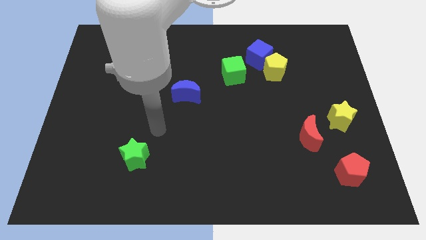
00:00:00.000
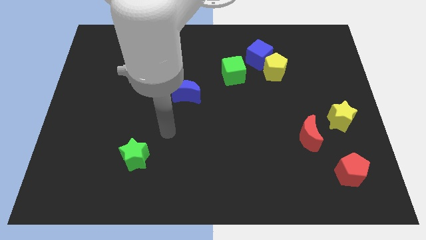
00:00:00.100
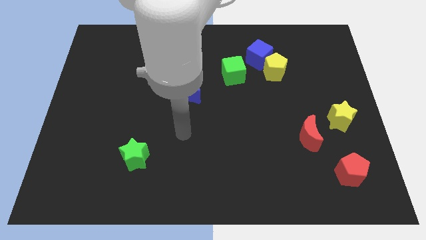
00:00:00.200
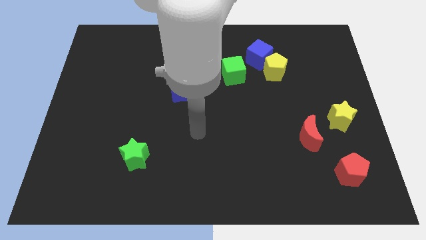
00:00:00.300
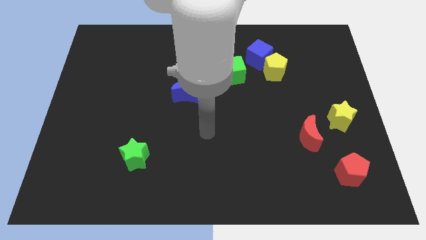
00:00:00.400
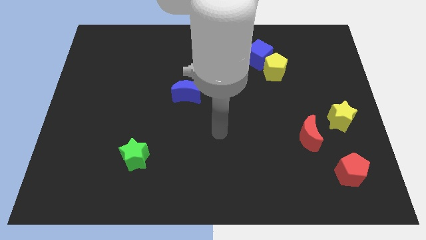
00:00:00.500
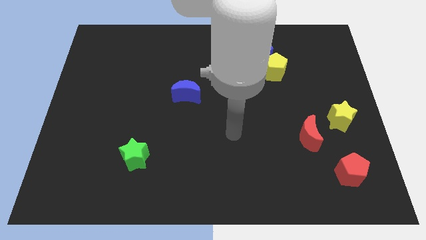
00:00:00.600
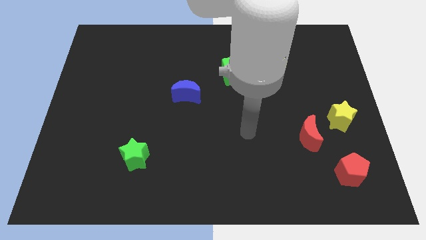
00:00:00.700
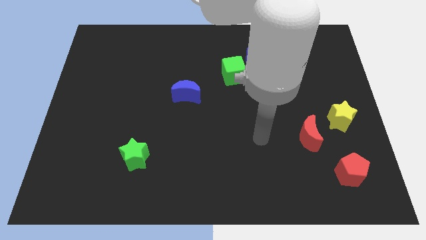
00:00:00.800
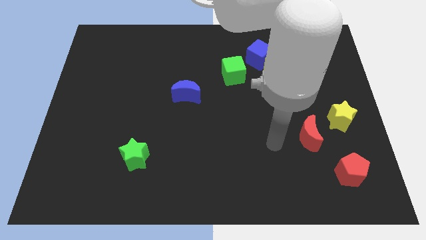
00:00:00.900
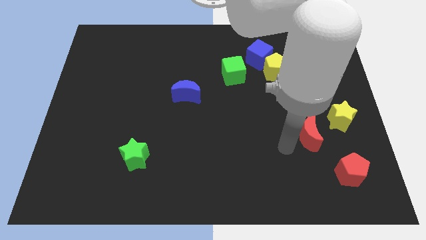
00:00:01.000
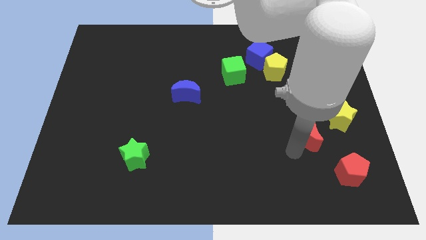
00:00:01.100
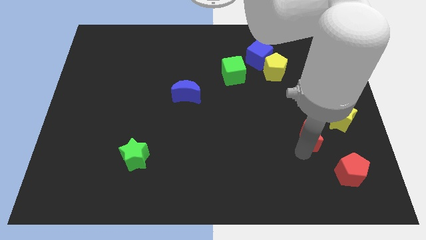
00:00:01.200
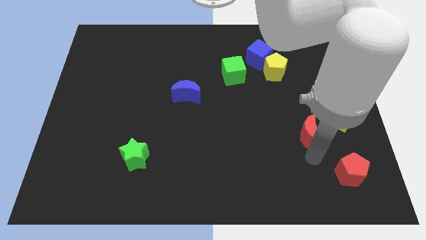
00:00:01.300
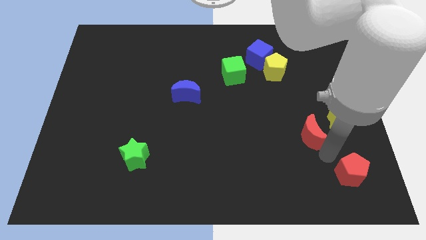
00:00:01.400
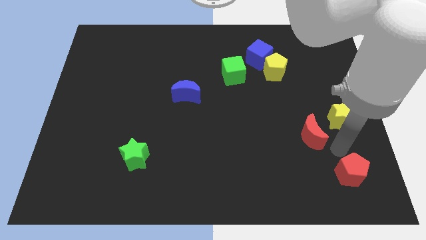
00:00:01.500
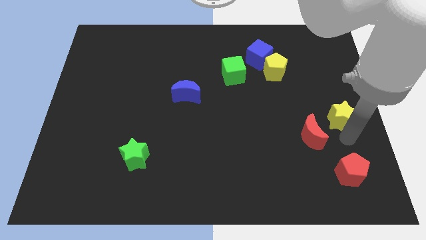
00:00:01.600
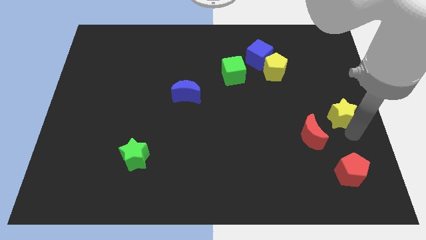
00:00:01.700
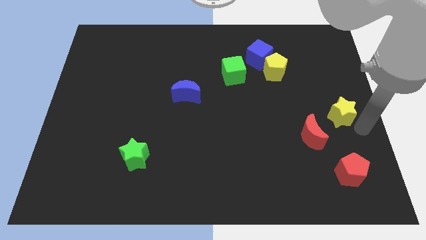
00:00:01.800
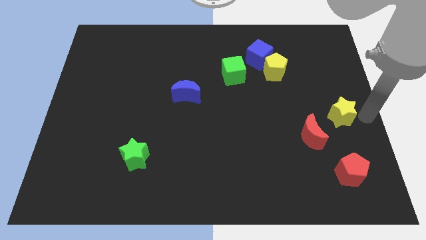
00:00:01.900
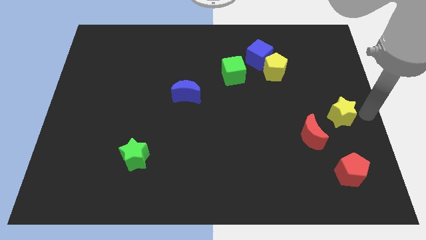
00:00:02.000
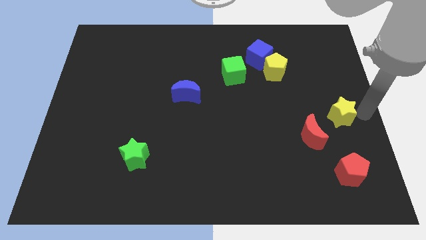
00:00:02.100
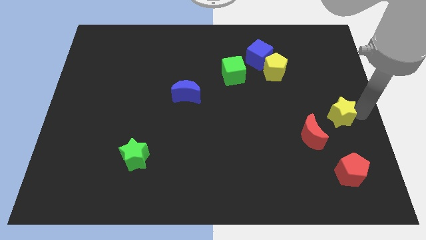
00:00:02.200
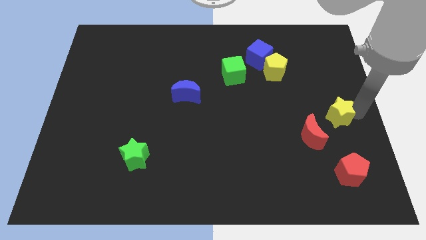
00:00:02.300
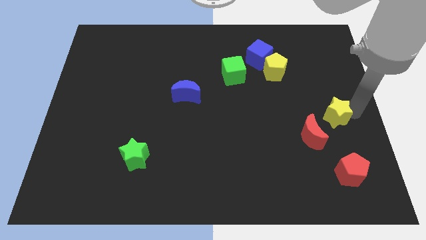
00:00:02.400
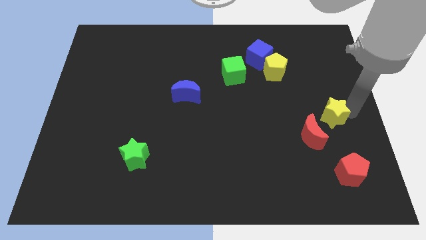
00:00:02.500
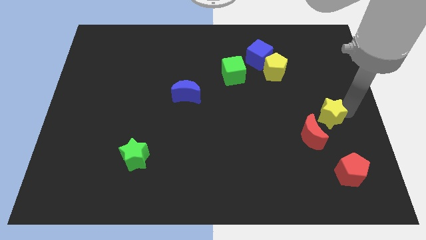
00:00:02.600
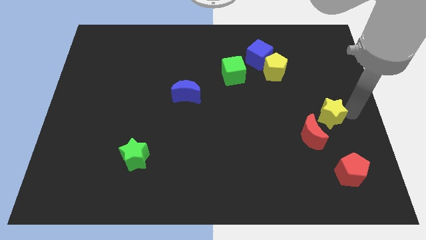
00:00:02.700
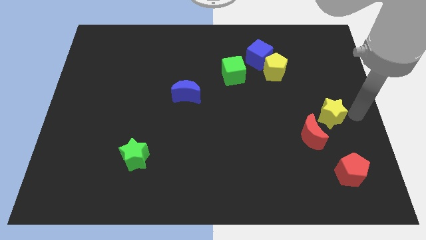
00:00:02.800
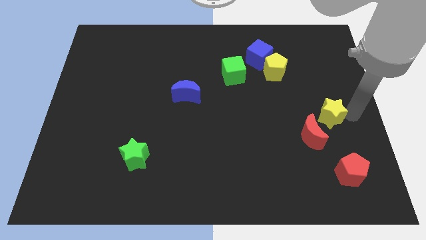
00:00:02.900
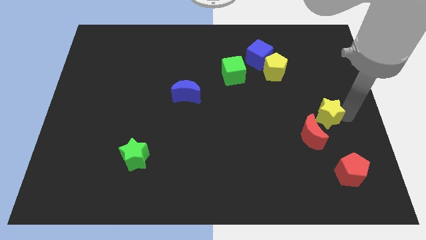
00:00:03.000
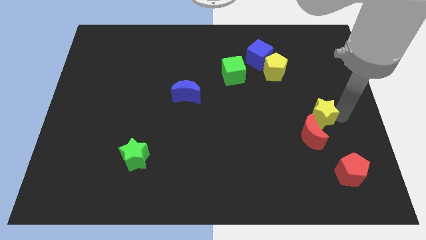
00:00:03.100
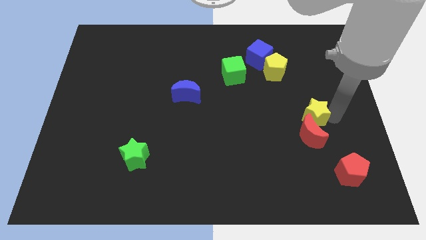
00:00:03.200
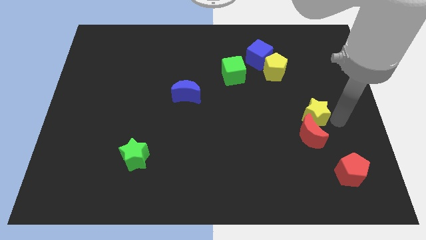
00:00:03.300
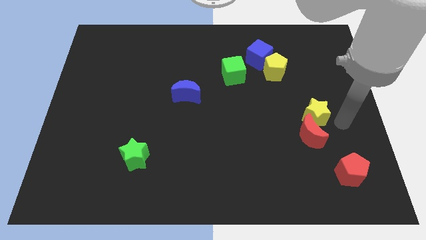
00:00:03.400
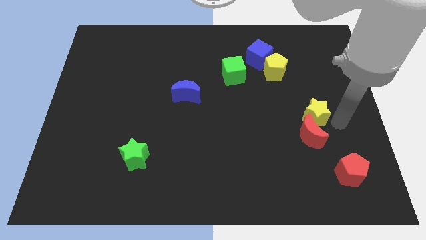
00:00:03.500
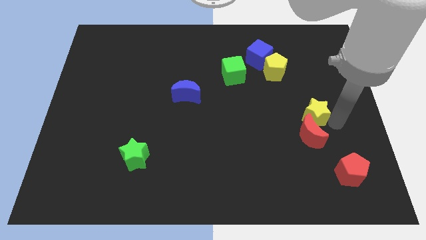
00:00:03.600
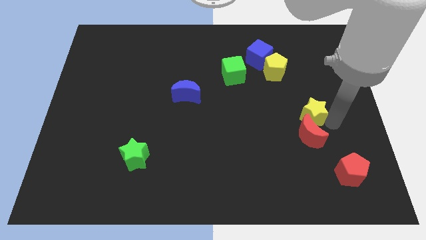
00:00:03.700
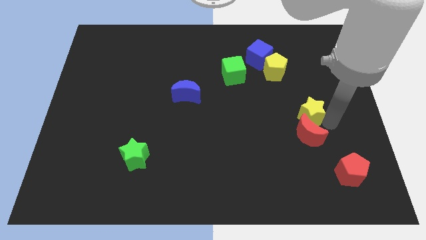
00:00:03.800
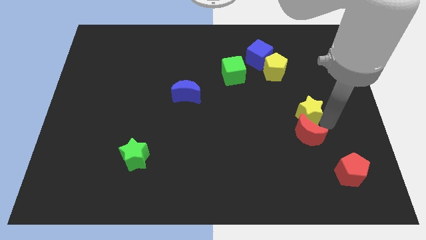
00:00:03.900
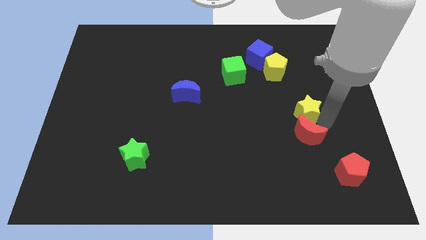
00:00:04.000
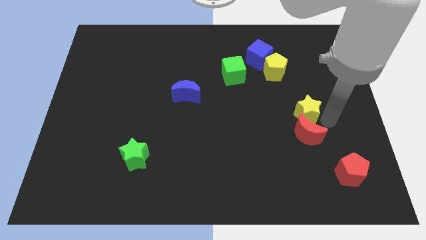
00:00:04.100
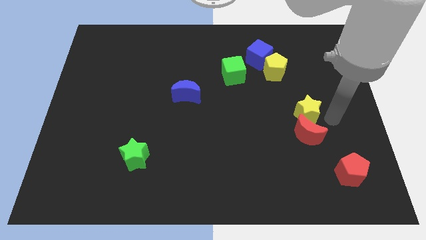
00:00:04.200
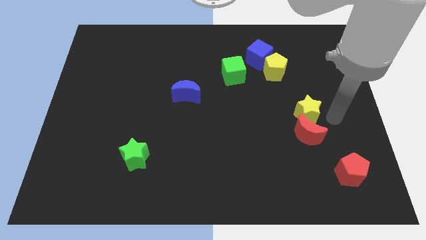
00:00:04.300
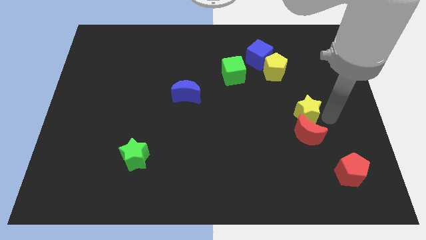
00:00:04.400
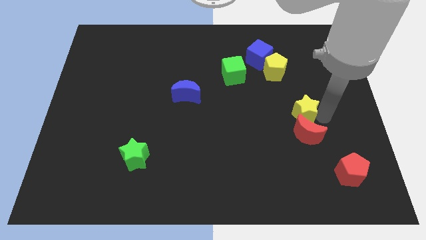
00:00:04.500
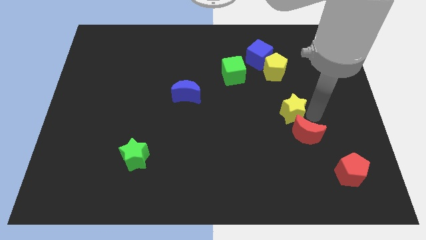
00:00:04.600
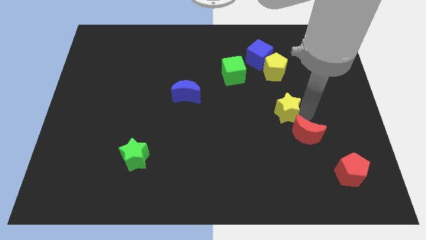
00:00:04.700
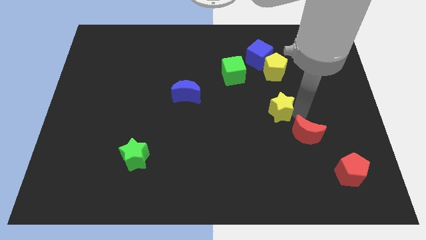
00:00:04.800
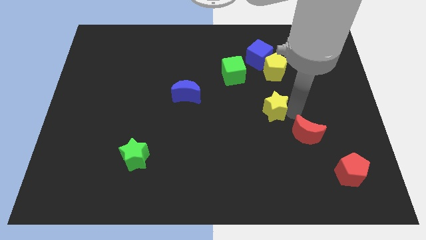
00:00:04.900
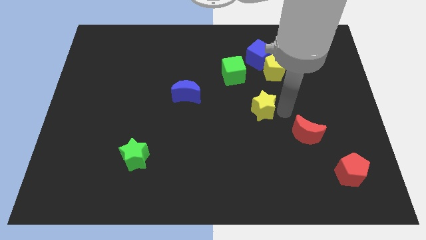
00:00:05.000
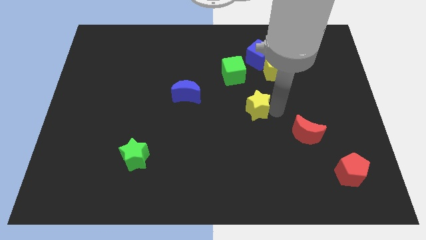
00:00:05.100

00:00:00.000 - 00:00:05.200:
push the yellow star below the green cube

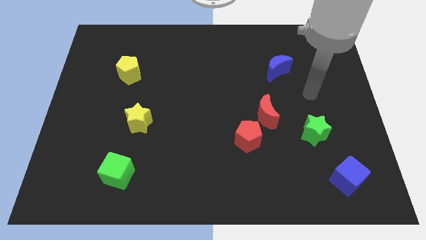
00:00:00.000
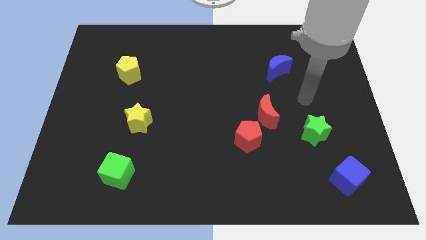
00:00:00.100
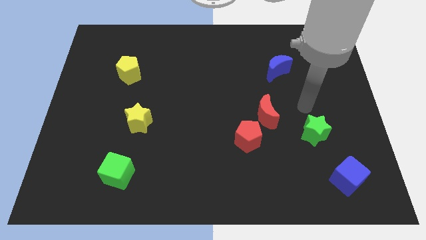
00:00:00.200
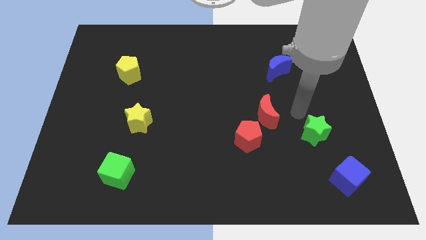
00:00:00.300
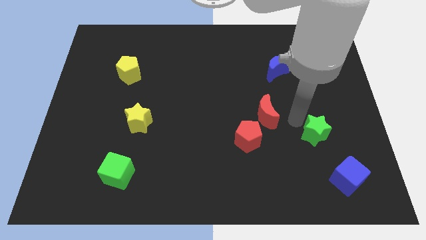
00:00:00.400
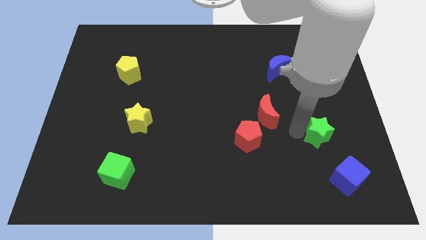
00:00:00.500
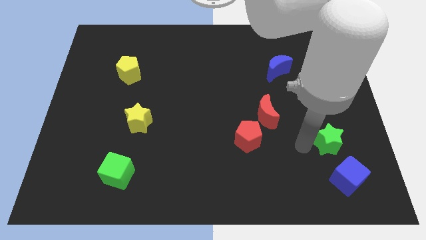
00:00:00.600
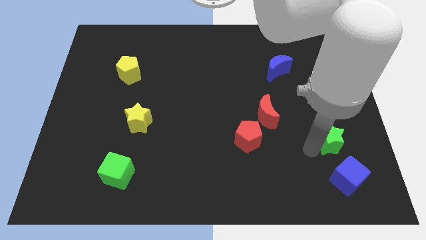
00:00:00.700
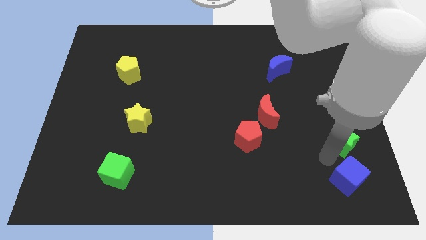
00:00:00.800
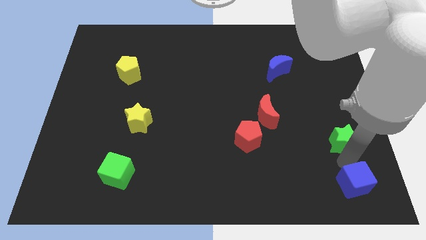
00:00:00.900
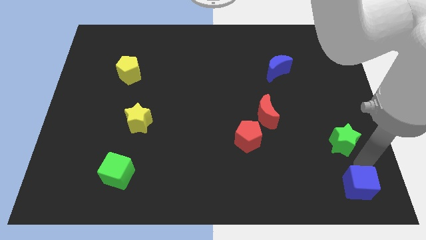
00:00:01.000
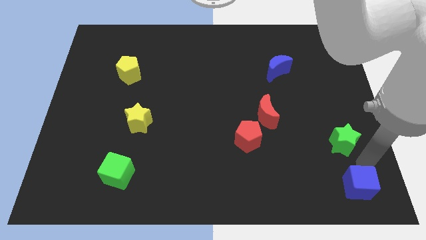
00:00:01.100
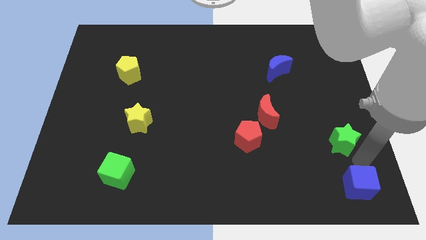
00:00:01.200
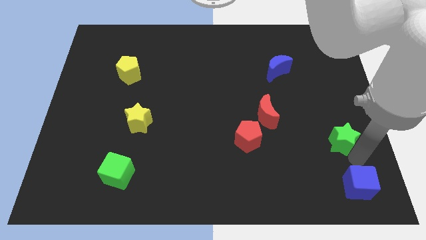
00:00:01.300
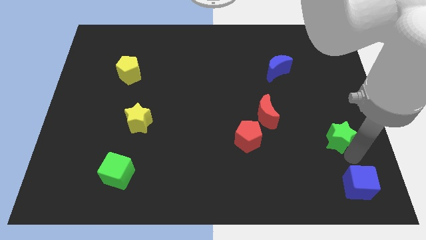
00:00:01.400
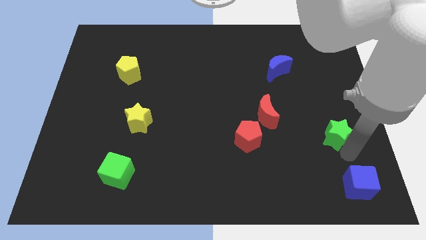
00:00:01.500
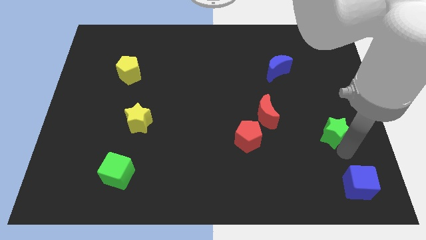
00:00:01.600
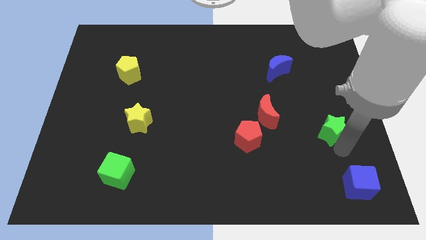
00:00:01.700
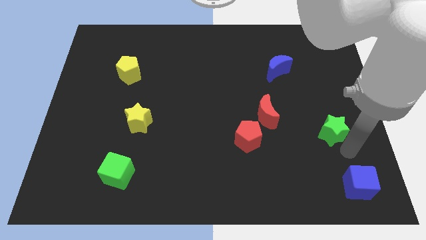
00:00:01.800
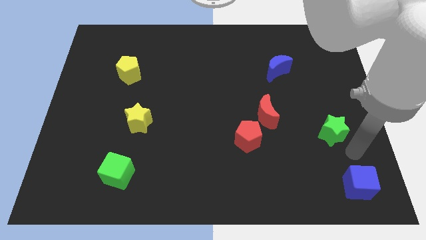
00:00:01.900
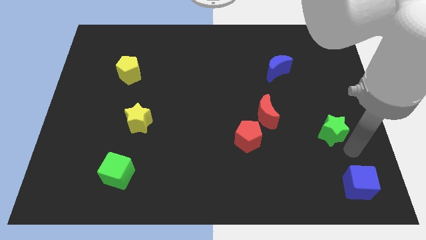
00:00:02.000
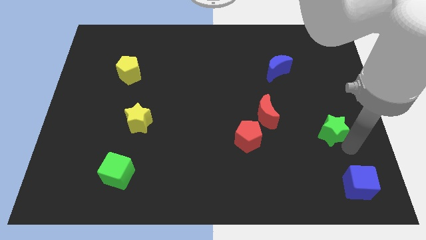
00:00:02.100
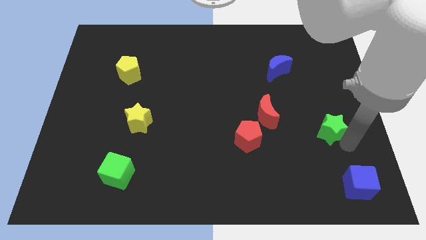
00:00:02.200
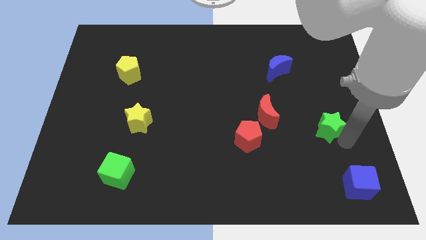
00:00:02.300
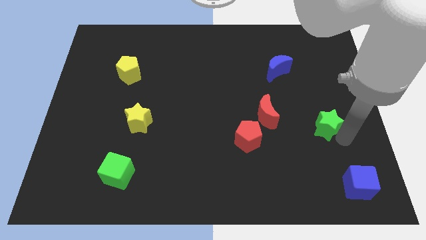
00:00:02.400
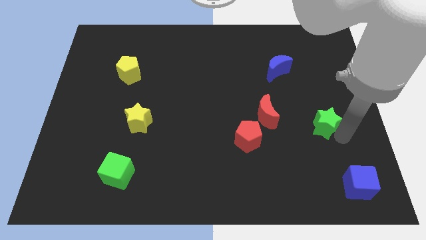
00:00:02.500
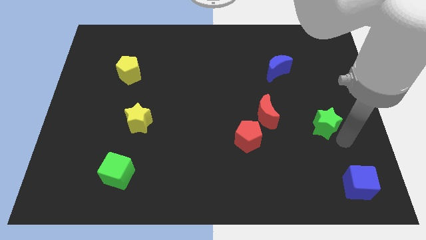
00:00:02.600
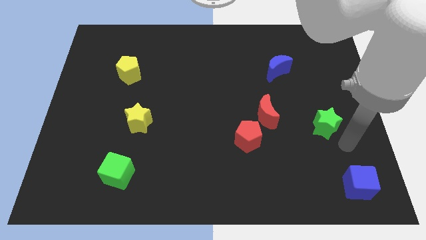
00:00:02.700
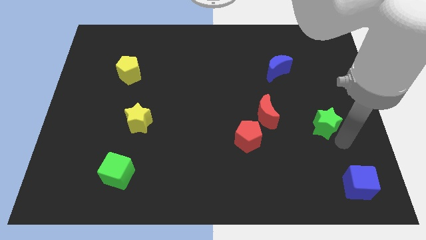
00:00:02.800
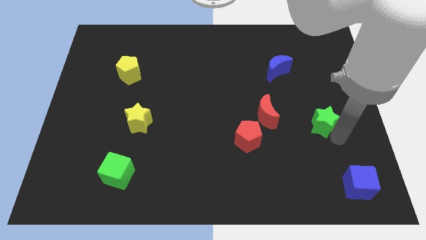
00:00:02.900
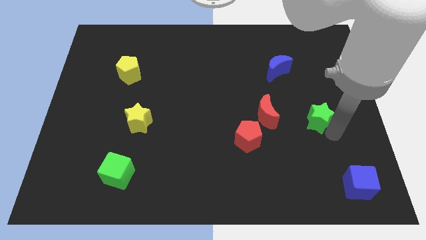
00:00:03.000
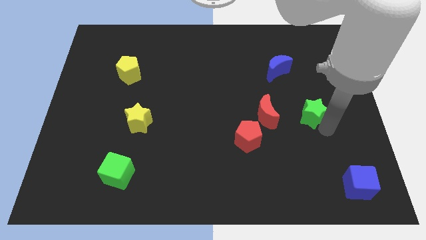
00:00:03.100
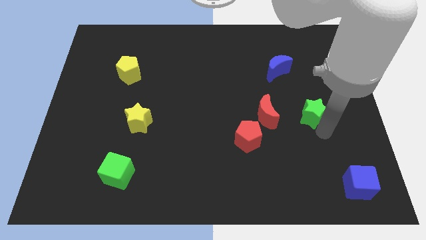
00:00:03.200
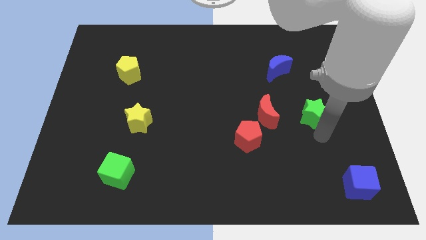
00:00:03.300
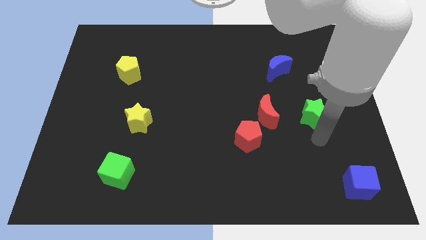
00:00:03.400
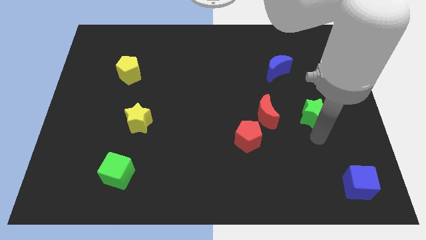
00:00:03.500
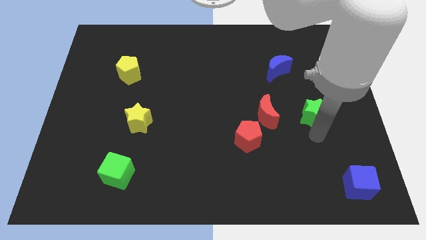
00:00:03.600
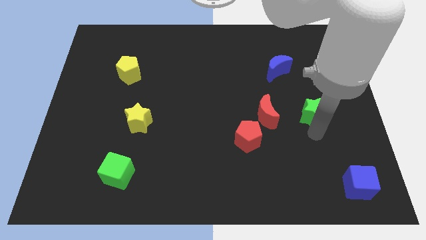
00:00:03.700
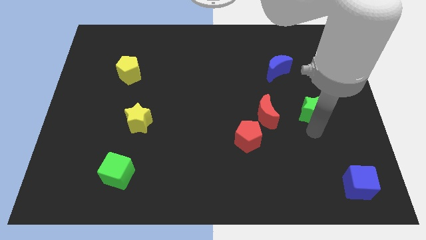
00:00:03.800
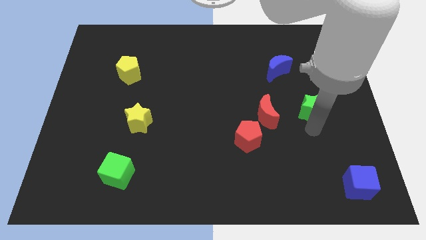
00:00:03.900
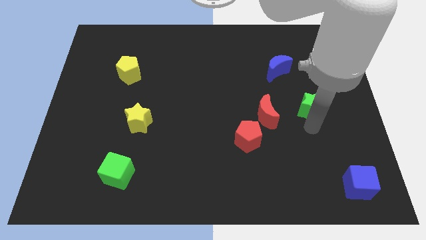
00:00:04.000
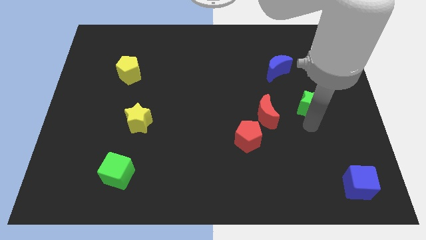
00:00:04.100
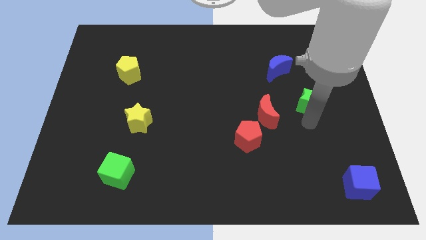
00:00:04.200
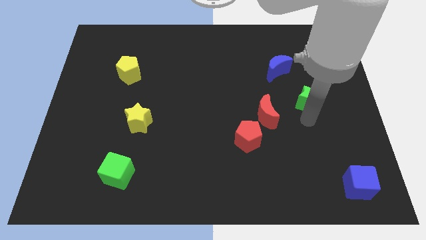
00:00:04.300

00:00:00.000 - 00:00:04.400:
move the green star to the bottom right of the blue moon
